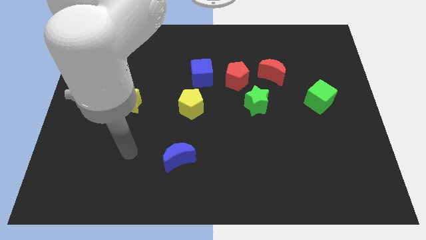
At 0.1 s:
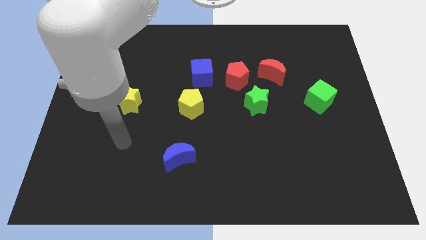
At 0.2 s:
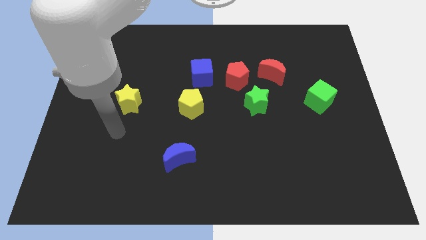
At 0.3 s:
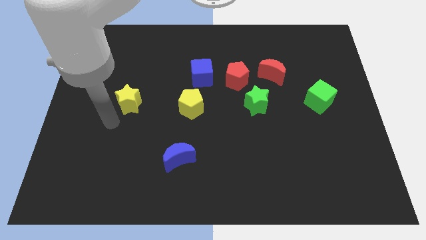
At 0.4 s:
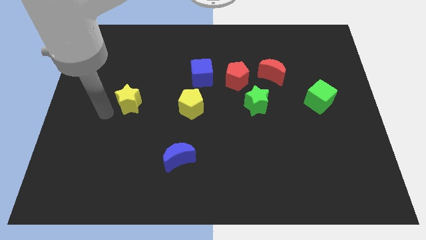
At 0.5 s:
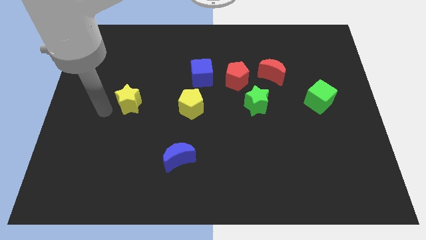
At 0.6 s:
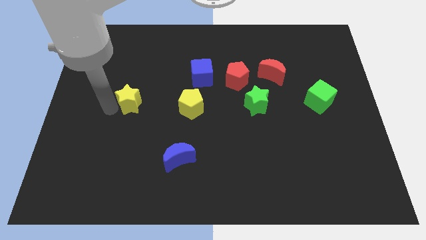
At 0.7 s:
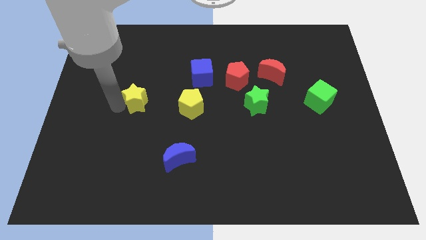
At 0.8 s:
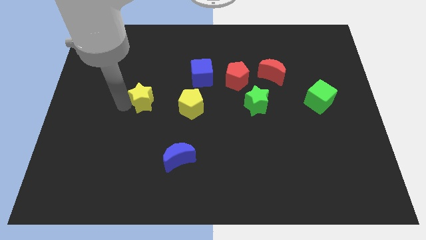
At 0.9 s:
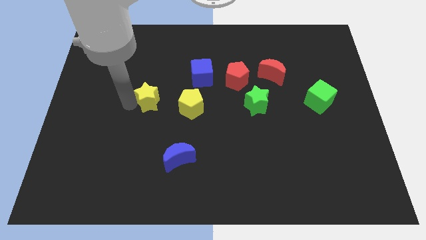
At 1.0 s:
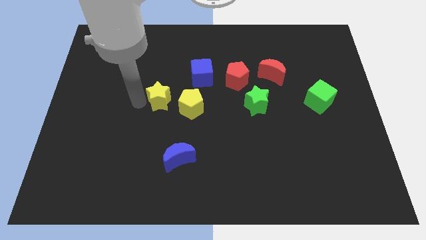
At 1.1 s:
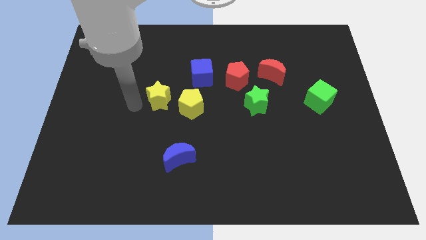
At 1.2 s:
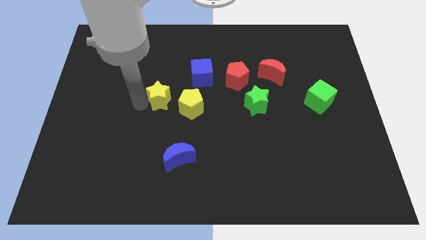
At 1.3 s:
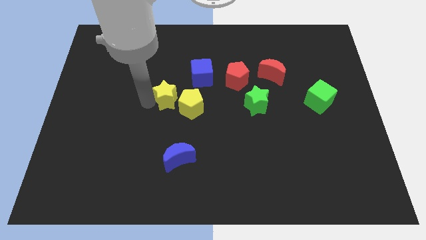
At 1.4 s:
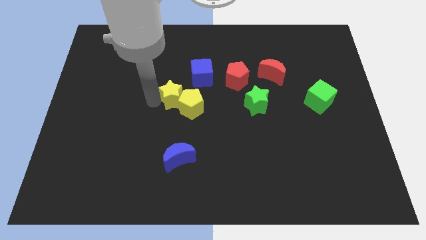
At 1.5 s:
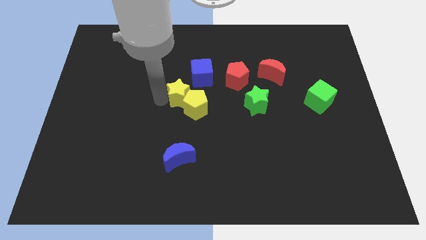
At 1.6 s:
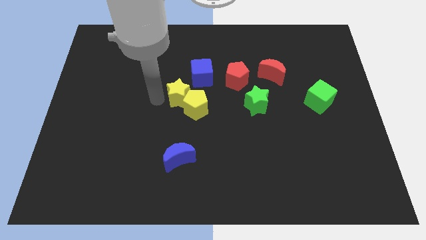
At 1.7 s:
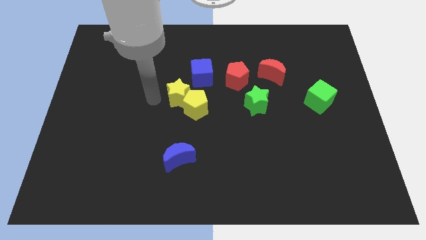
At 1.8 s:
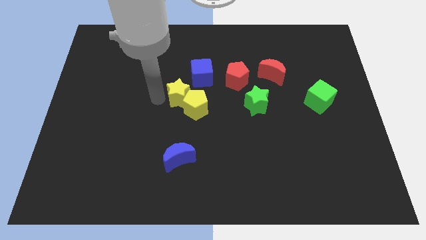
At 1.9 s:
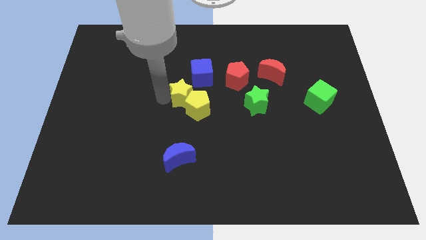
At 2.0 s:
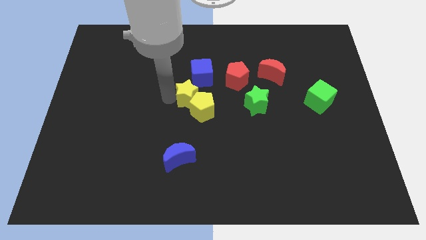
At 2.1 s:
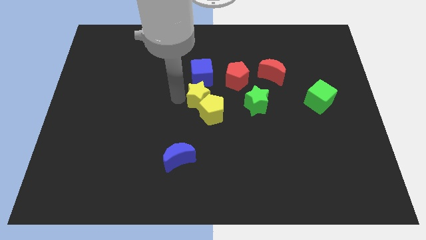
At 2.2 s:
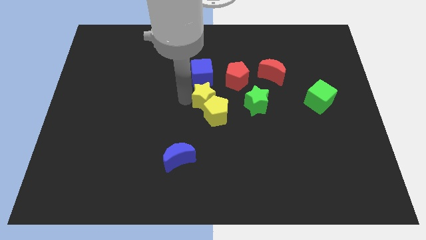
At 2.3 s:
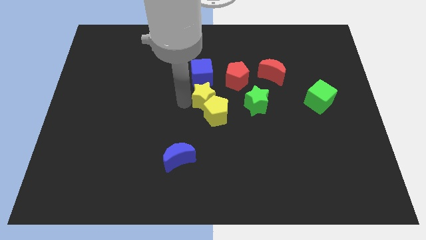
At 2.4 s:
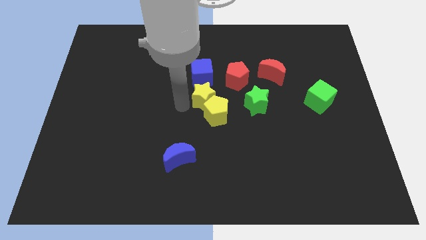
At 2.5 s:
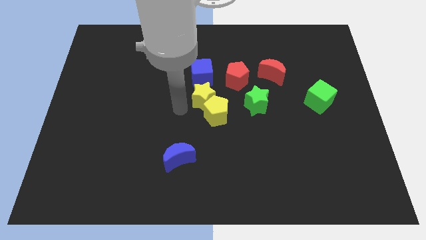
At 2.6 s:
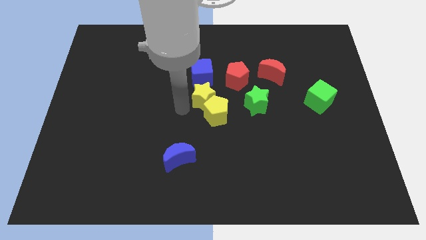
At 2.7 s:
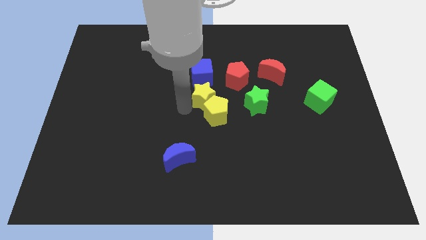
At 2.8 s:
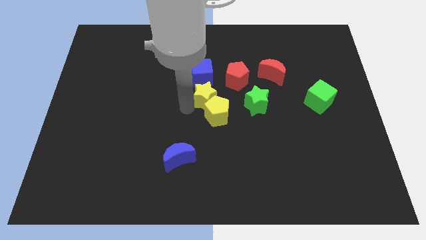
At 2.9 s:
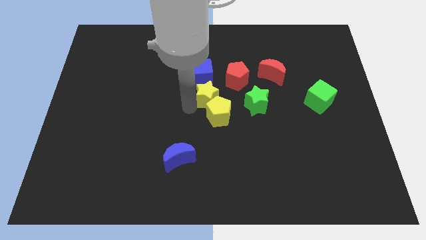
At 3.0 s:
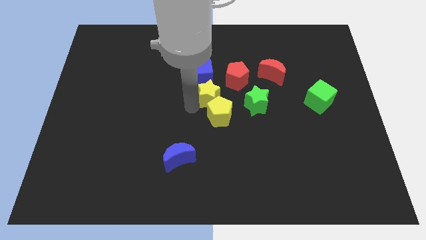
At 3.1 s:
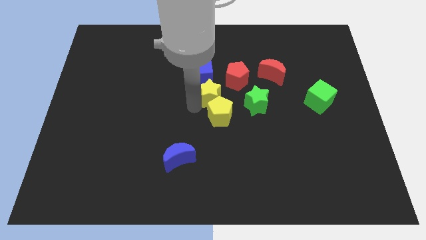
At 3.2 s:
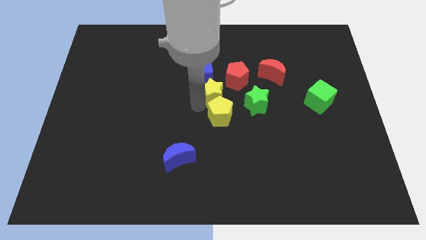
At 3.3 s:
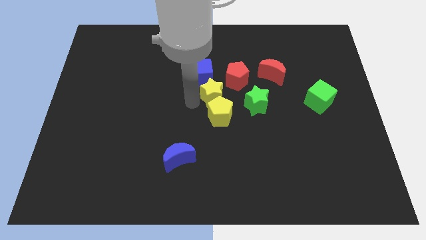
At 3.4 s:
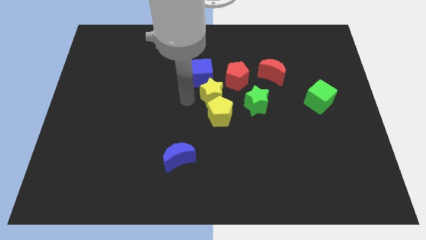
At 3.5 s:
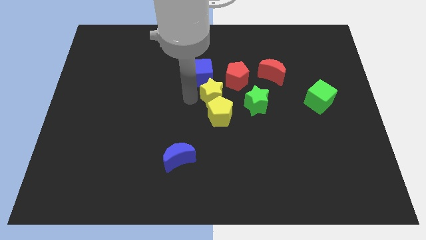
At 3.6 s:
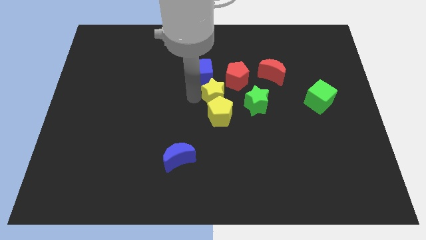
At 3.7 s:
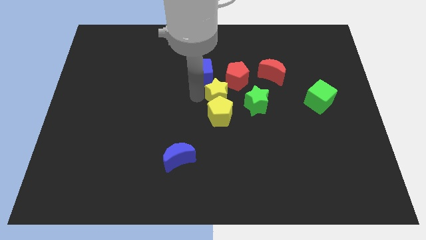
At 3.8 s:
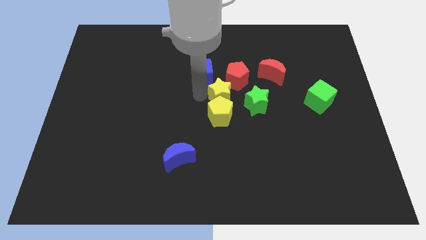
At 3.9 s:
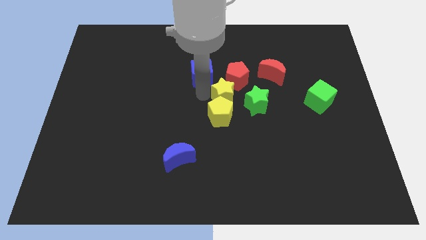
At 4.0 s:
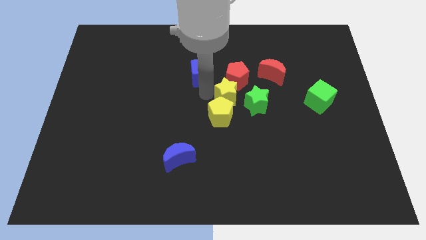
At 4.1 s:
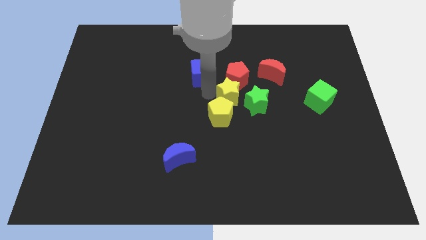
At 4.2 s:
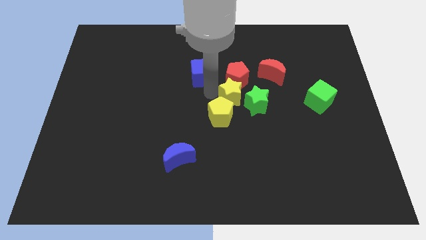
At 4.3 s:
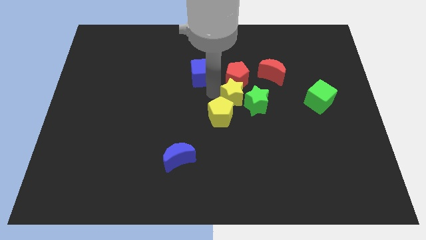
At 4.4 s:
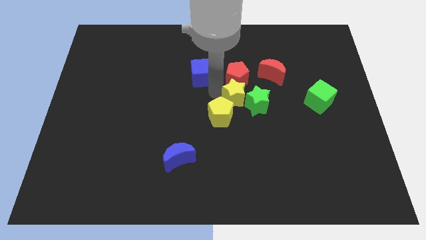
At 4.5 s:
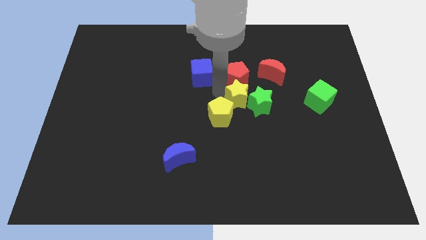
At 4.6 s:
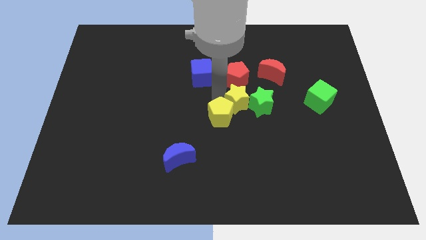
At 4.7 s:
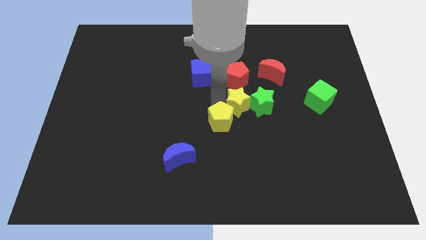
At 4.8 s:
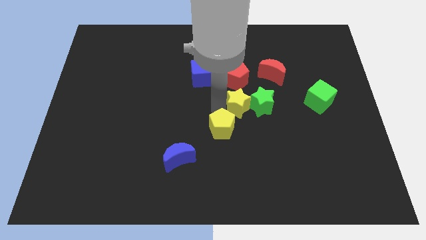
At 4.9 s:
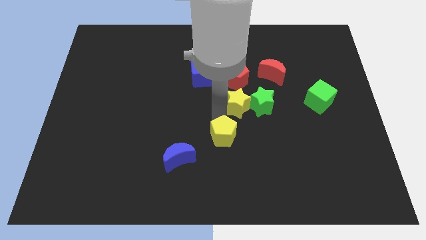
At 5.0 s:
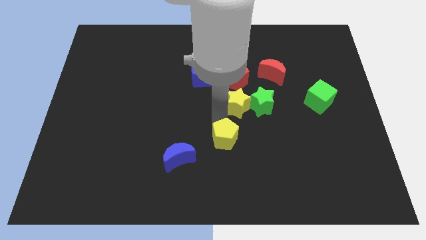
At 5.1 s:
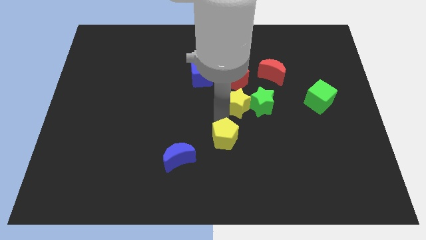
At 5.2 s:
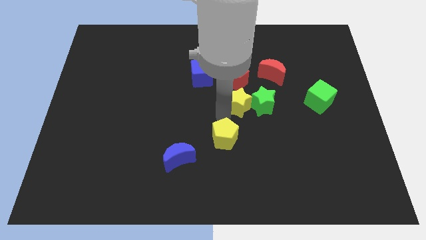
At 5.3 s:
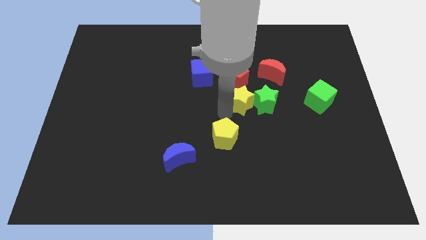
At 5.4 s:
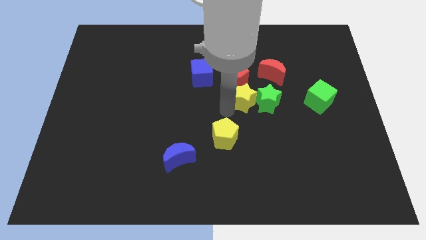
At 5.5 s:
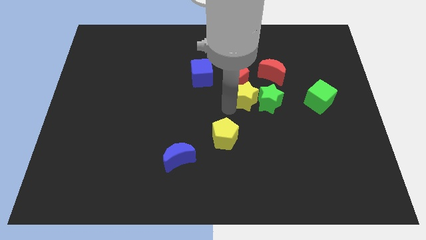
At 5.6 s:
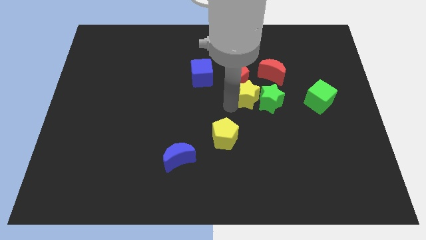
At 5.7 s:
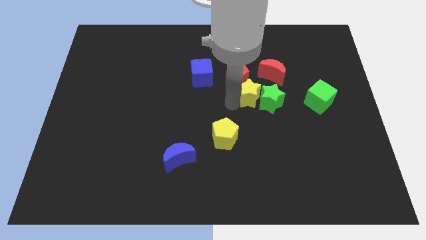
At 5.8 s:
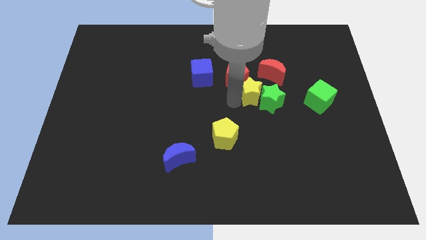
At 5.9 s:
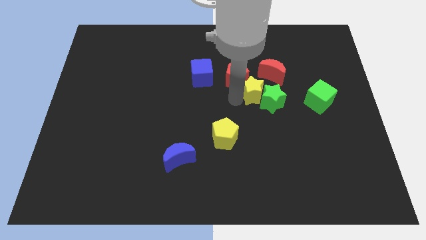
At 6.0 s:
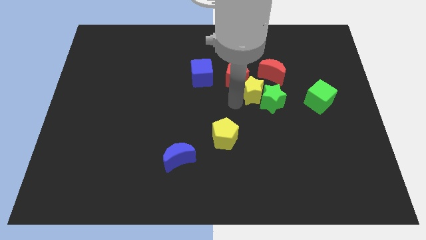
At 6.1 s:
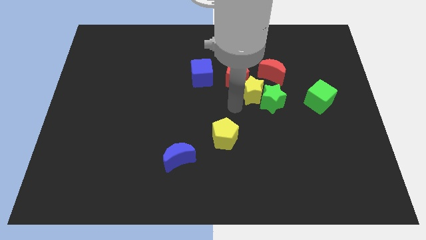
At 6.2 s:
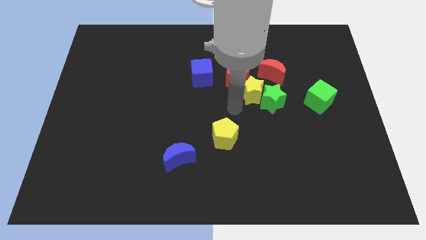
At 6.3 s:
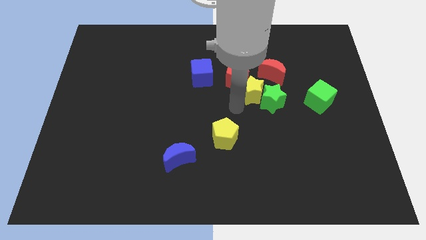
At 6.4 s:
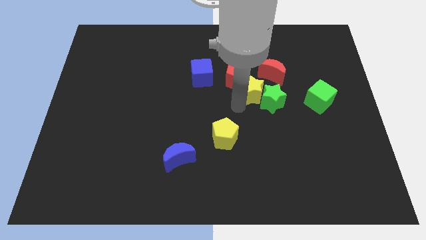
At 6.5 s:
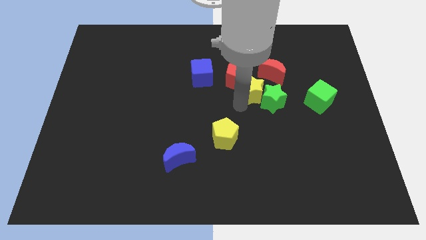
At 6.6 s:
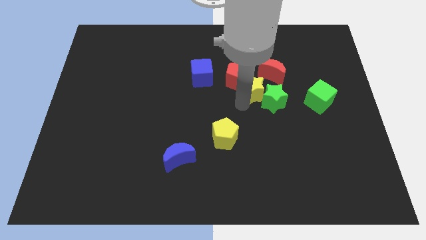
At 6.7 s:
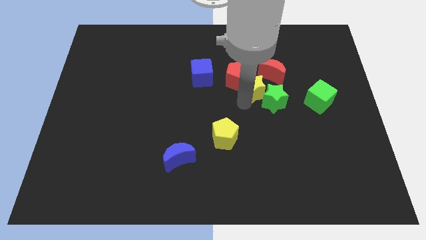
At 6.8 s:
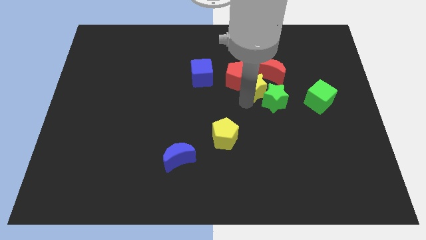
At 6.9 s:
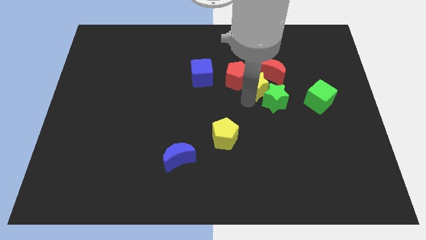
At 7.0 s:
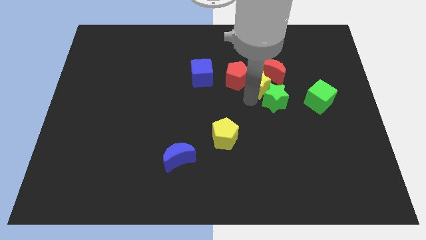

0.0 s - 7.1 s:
move the yellow star next to the red moon

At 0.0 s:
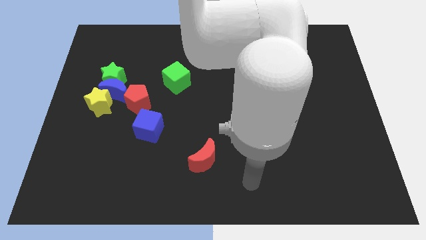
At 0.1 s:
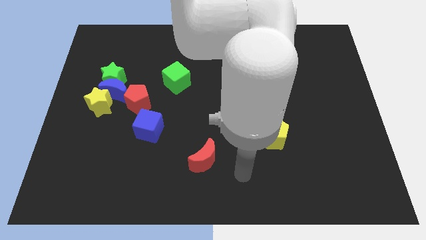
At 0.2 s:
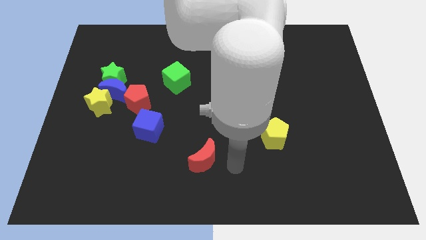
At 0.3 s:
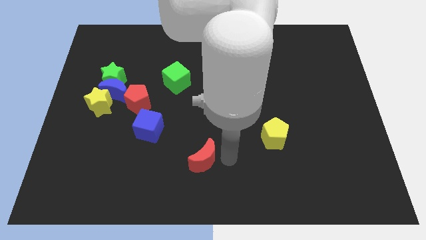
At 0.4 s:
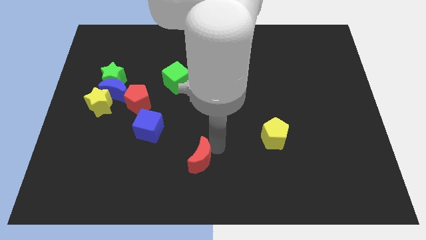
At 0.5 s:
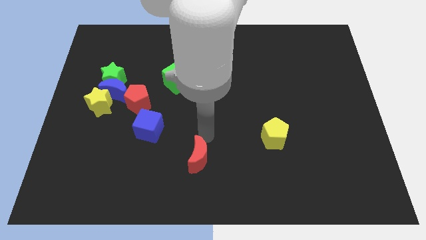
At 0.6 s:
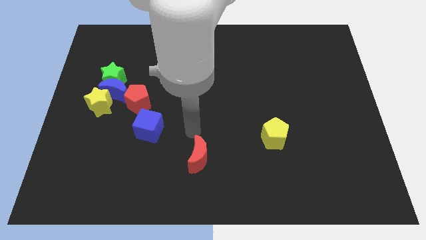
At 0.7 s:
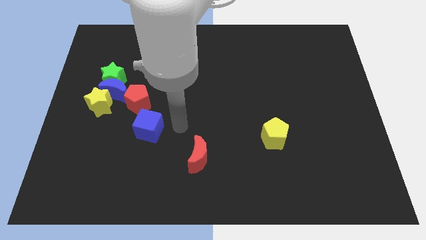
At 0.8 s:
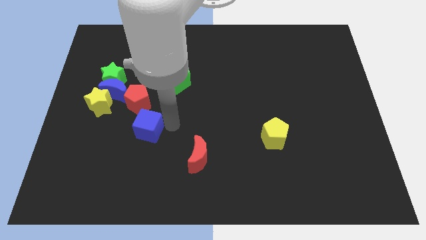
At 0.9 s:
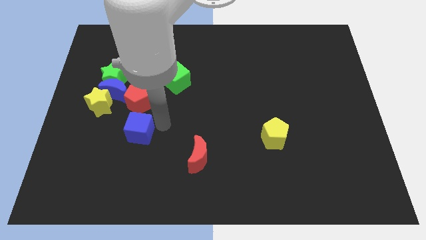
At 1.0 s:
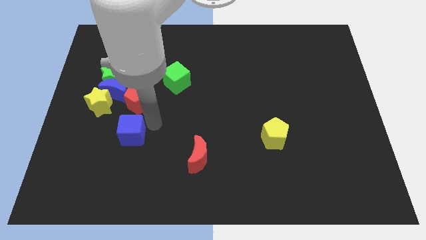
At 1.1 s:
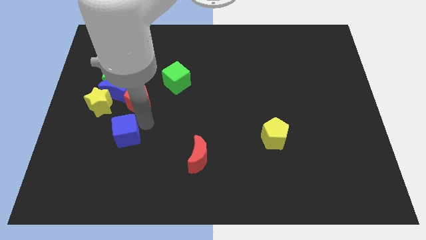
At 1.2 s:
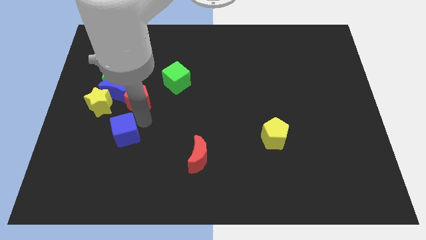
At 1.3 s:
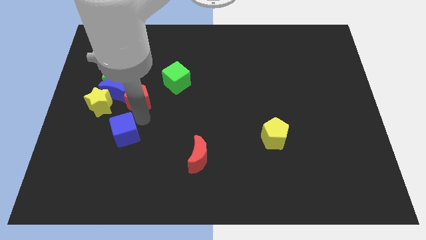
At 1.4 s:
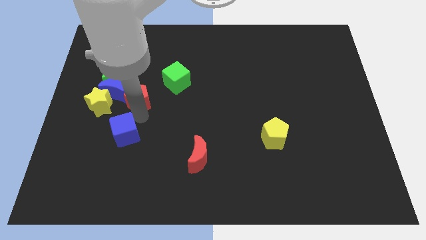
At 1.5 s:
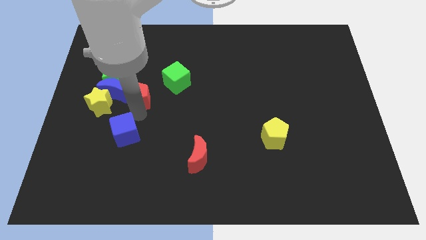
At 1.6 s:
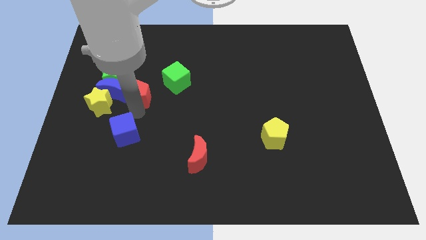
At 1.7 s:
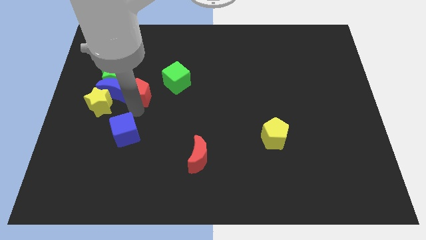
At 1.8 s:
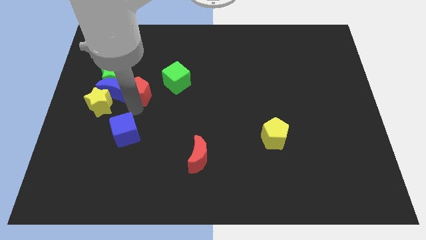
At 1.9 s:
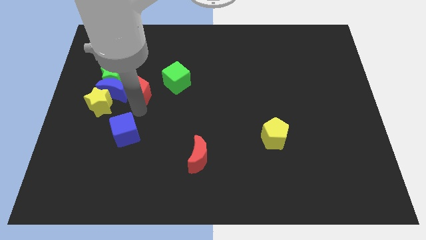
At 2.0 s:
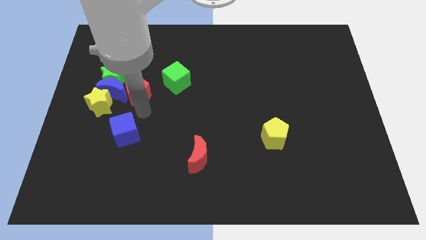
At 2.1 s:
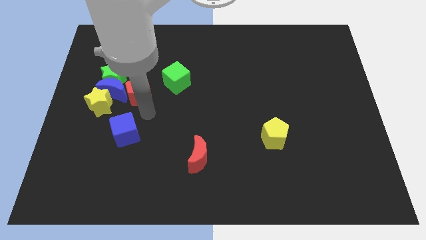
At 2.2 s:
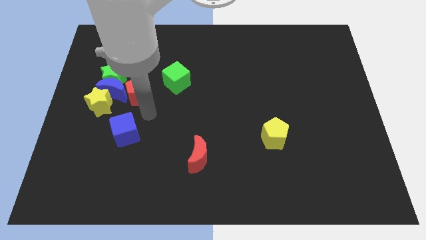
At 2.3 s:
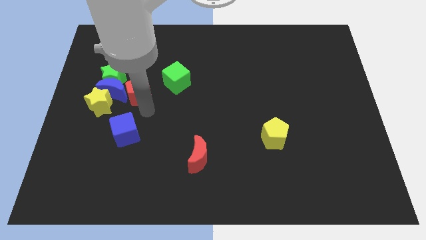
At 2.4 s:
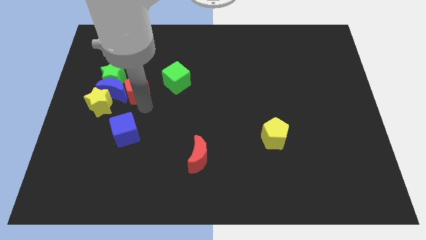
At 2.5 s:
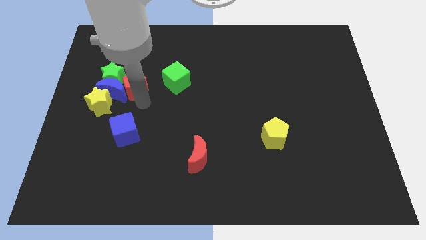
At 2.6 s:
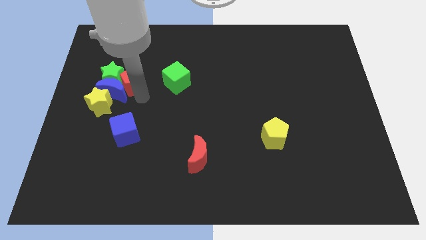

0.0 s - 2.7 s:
slide the red pentagon next to the green star
